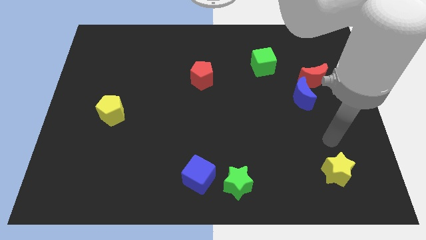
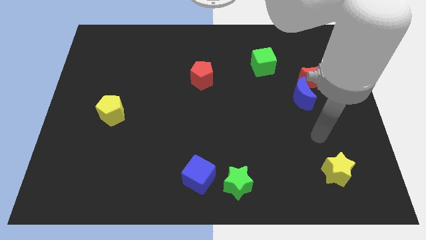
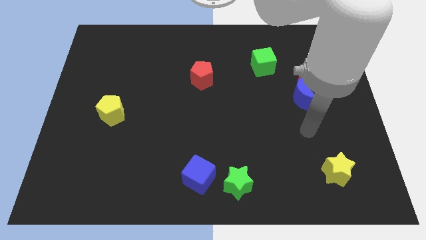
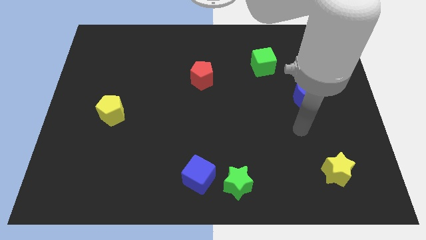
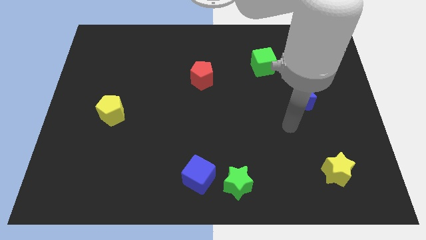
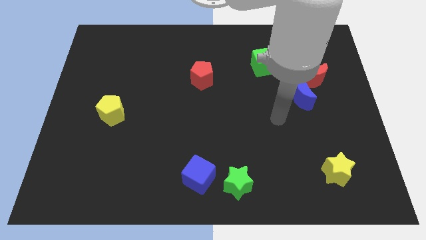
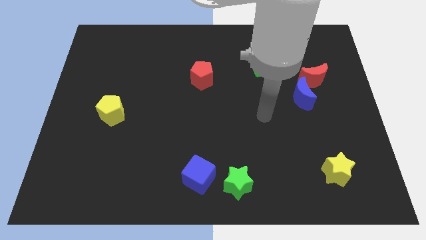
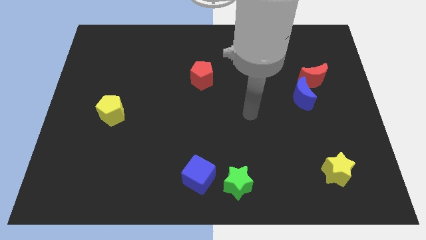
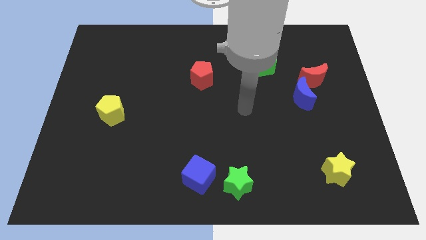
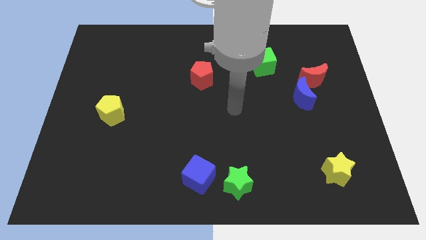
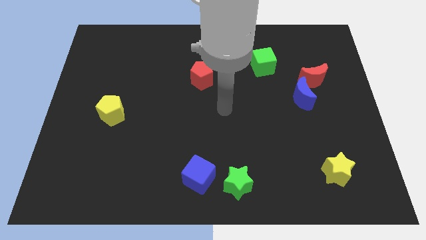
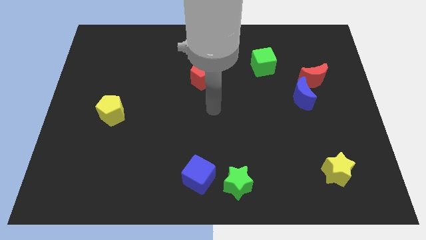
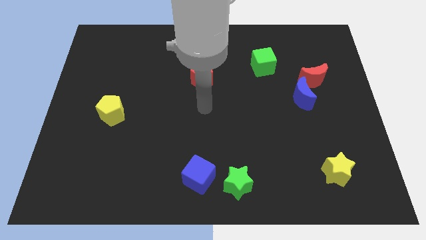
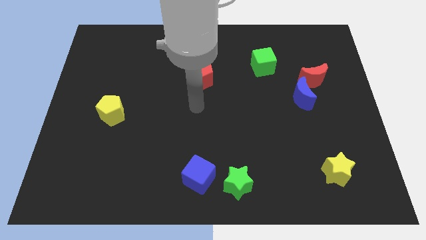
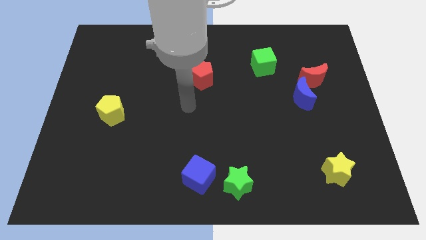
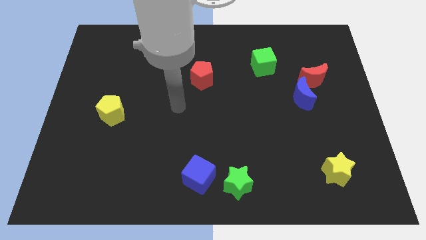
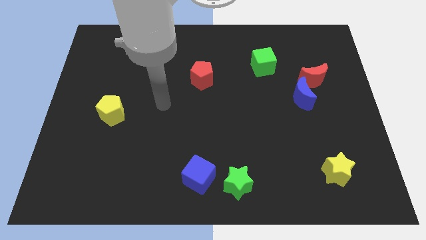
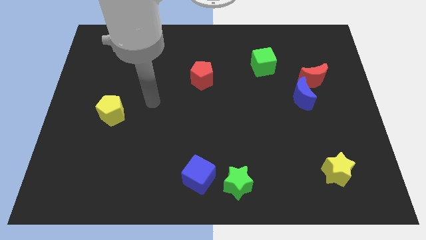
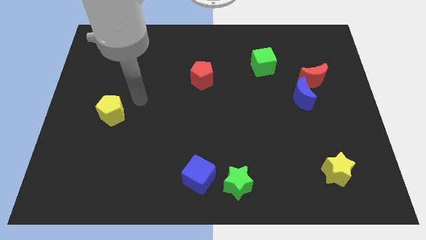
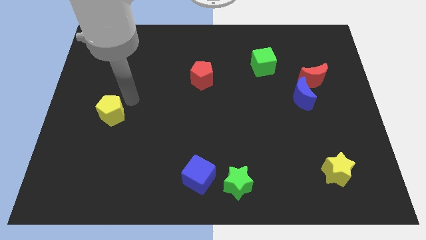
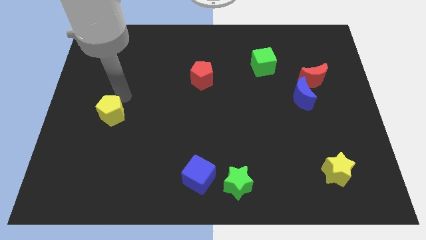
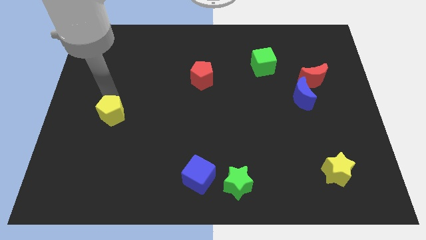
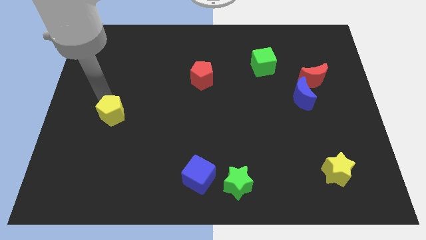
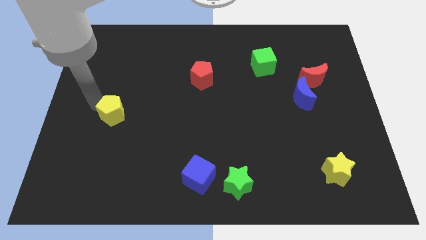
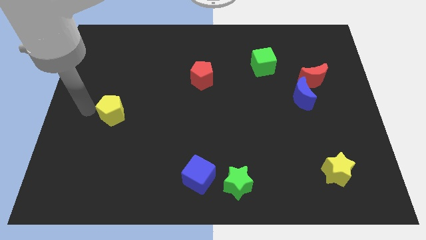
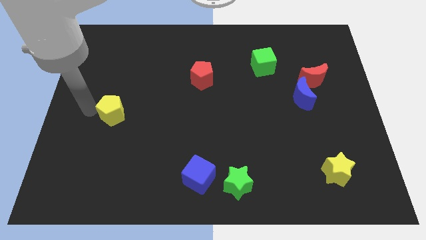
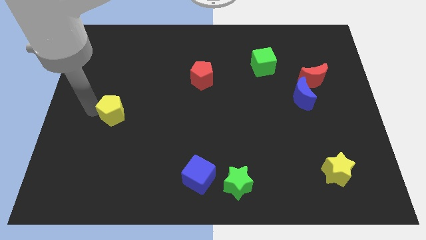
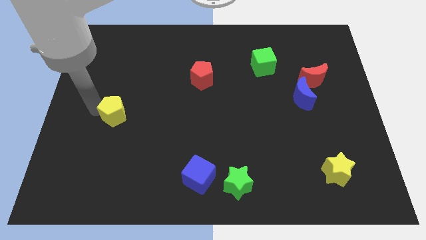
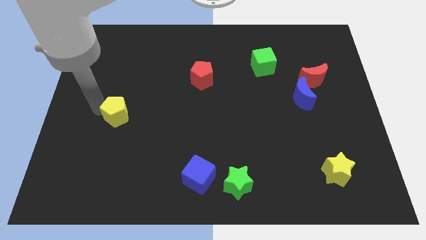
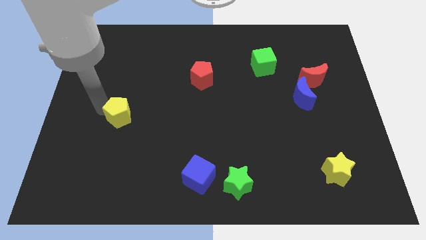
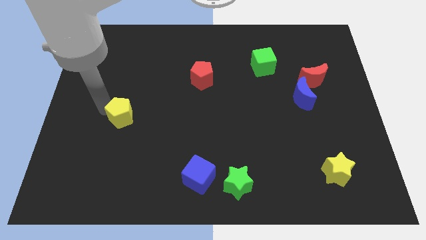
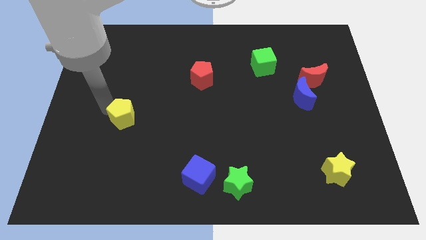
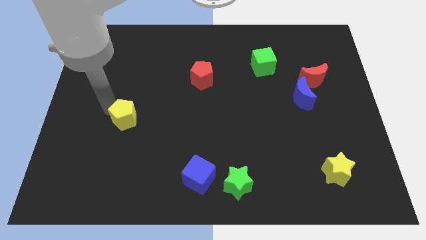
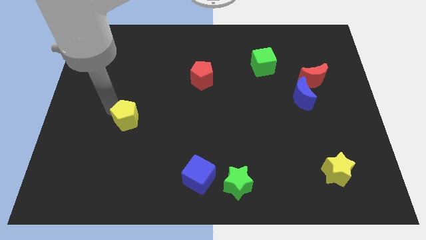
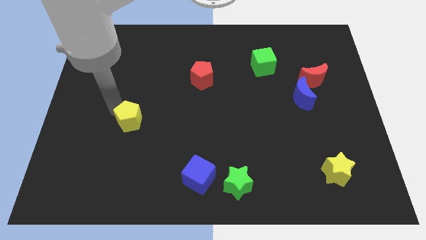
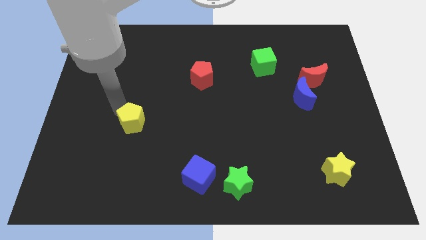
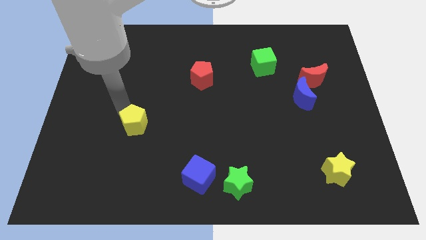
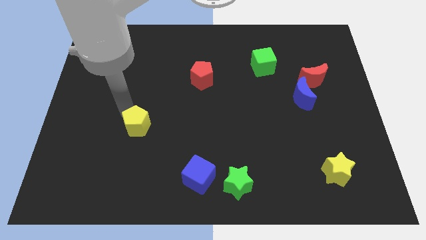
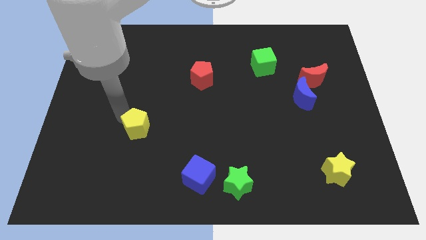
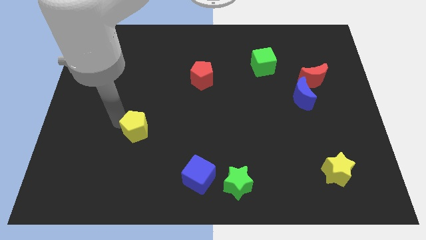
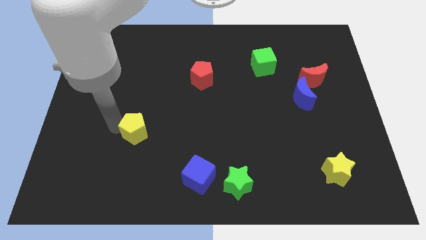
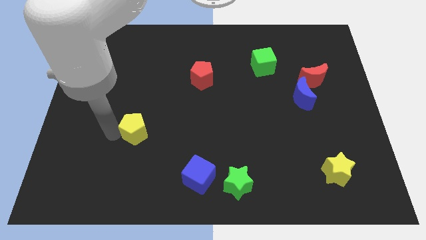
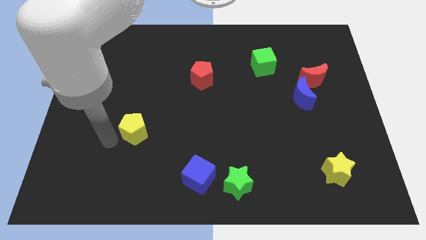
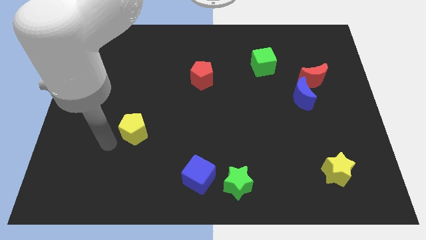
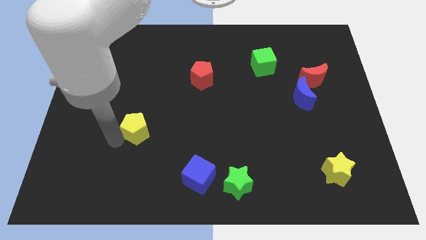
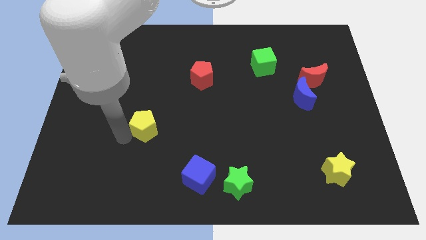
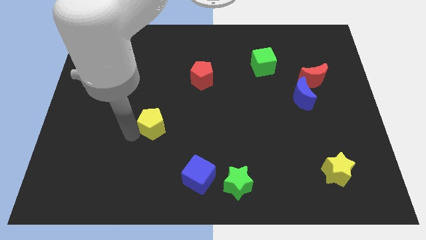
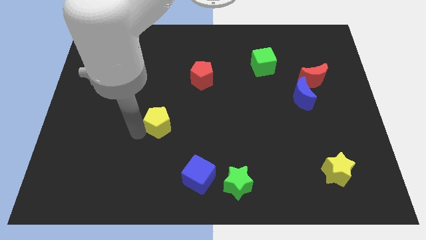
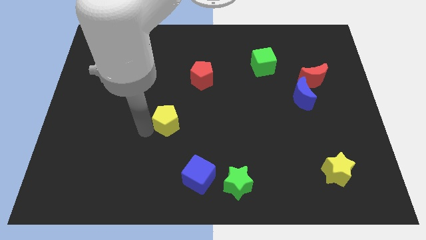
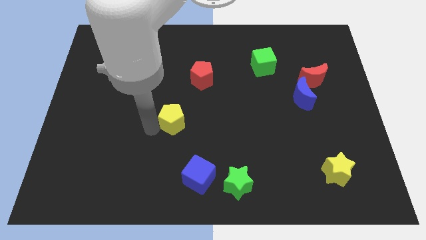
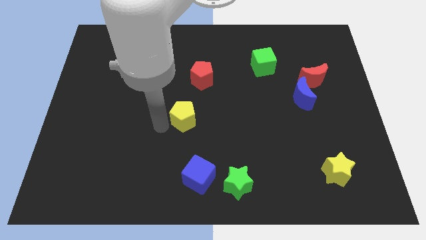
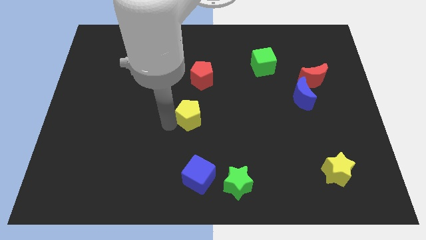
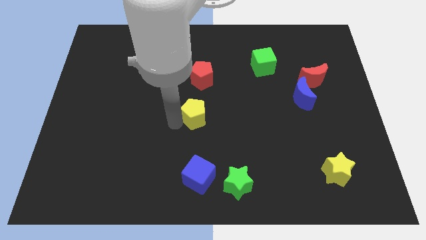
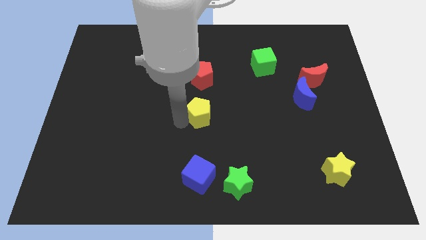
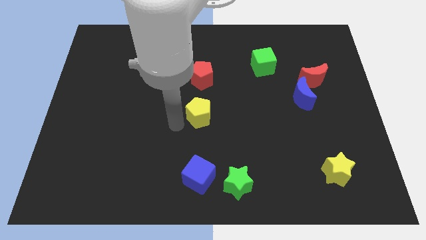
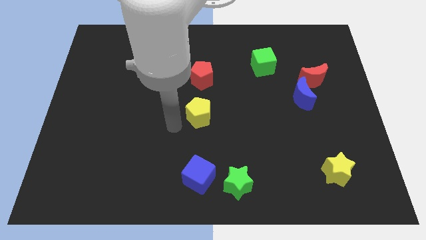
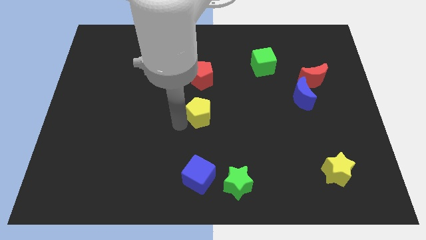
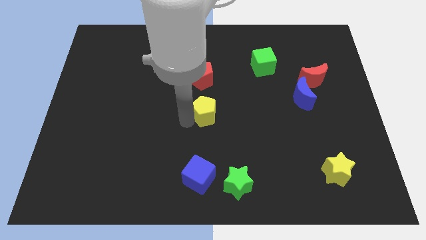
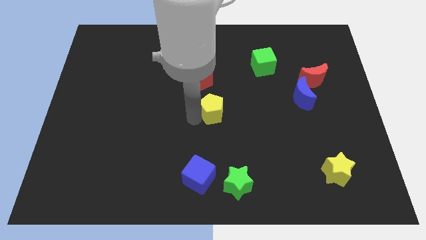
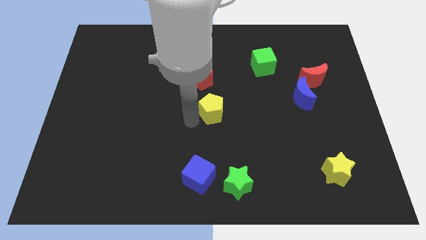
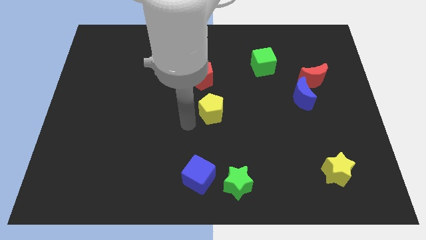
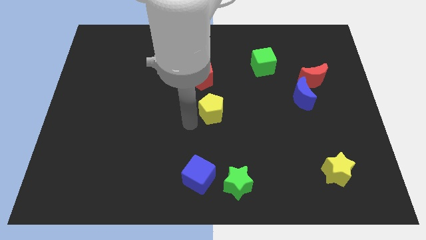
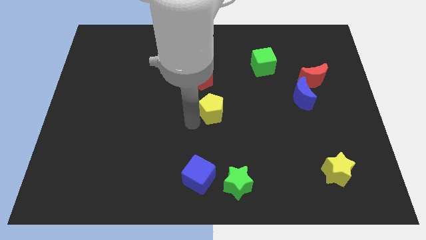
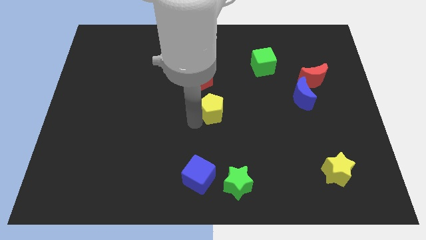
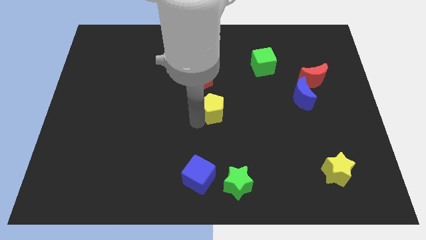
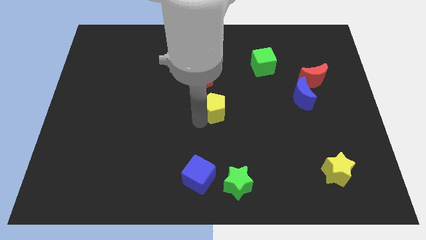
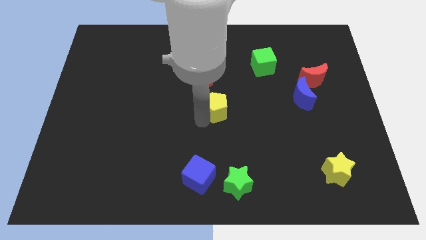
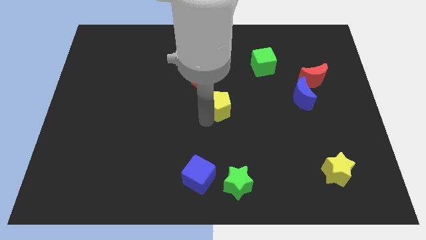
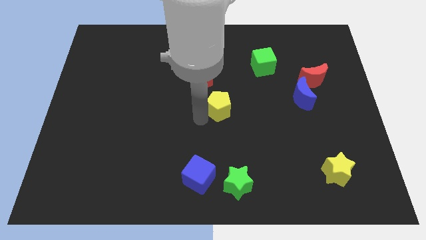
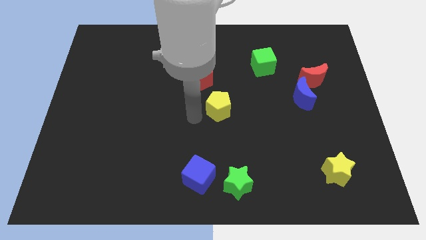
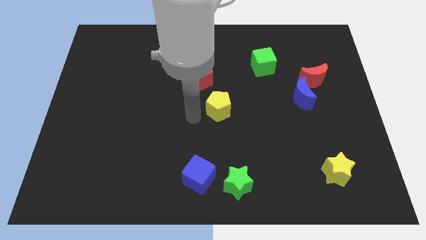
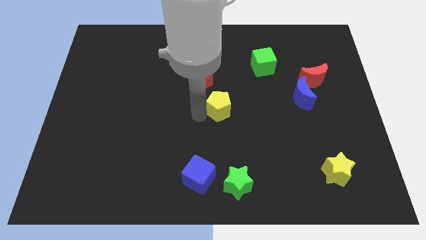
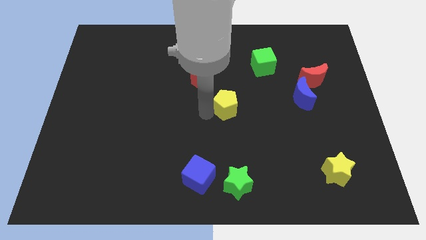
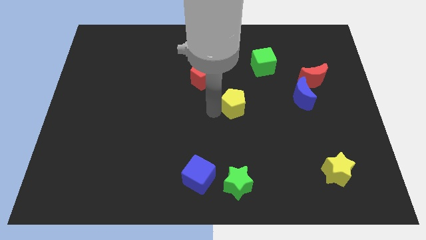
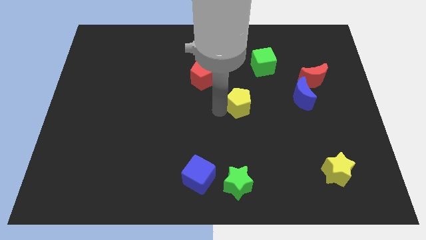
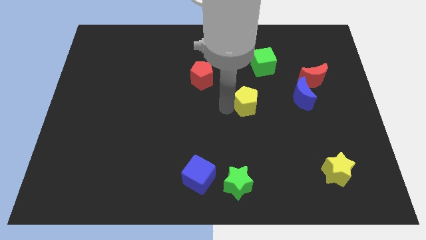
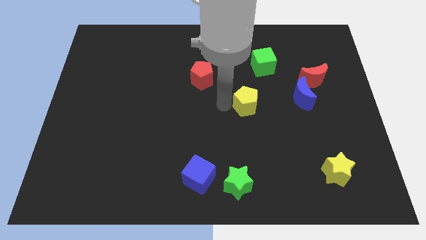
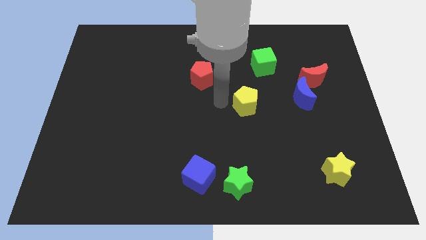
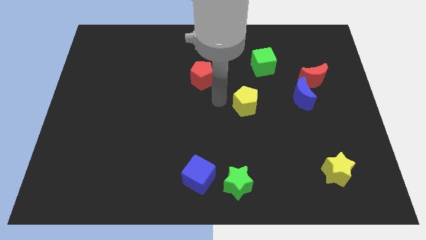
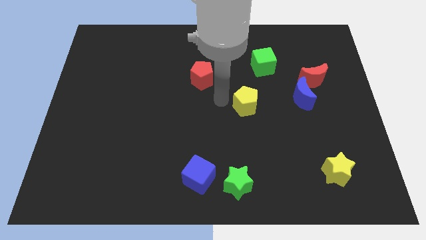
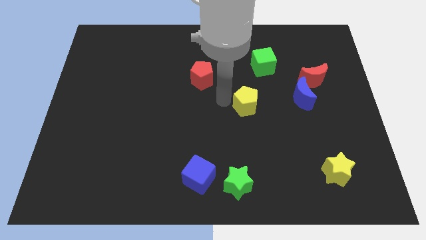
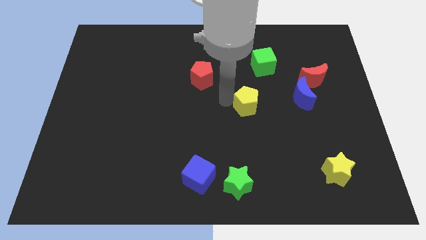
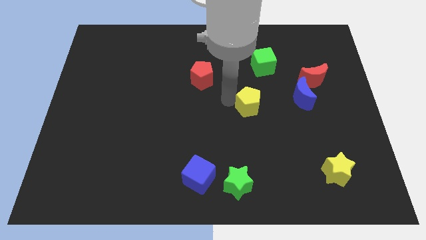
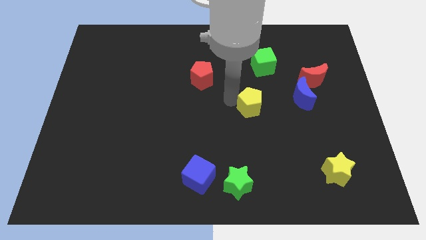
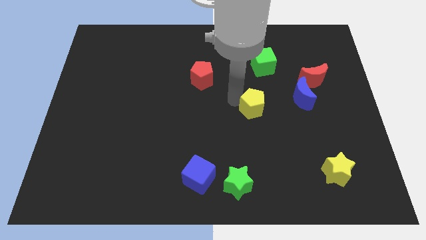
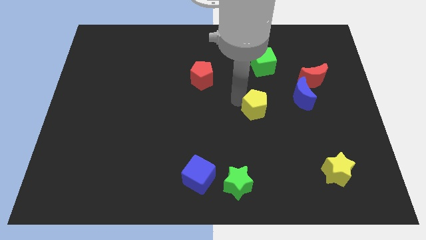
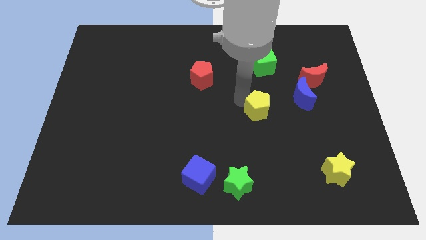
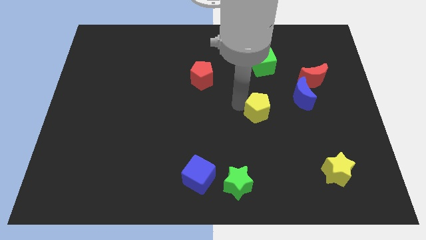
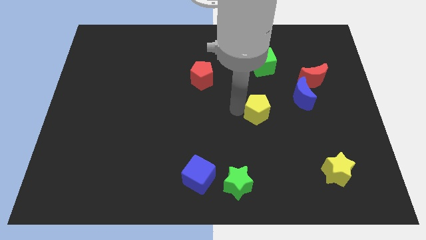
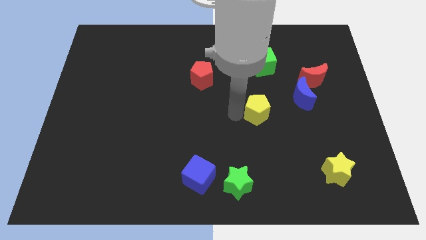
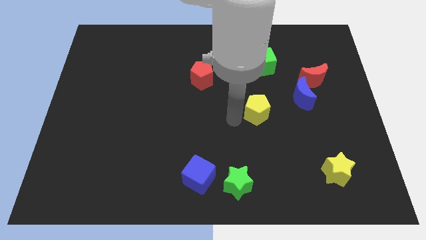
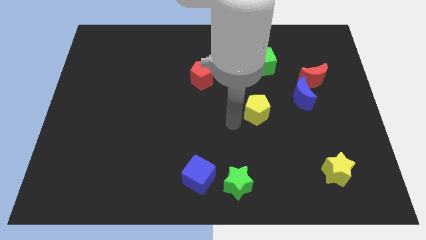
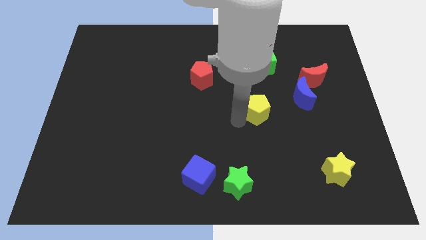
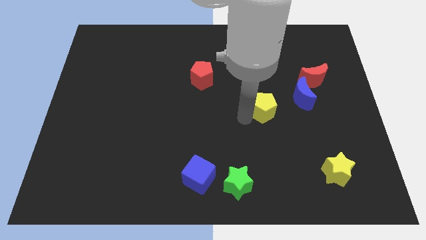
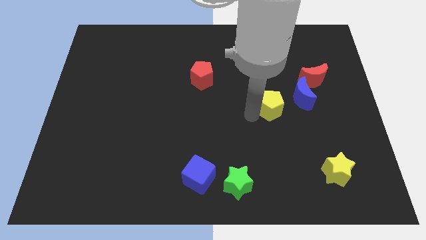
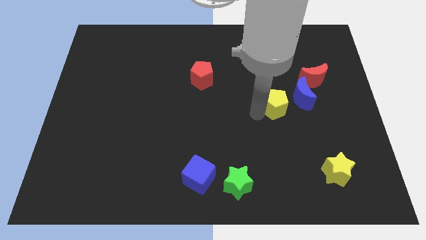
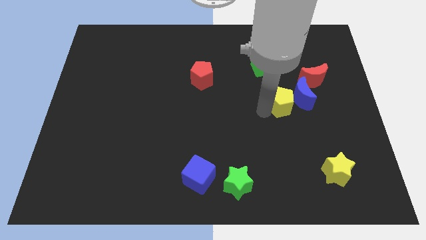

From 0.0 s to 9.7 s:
put the yellow pentagon to the blue moon
